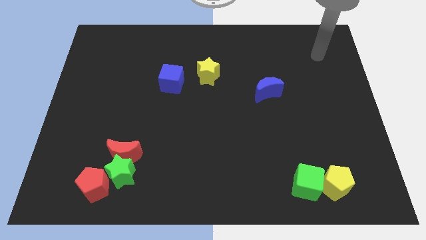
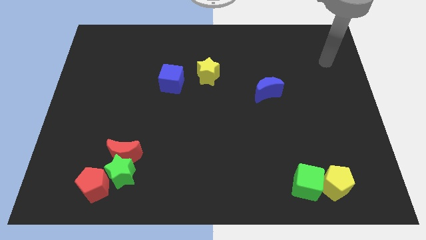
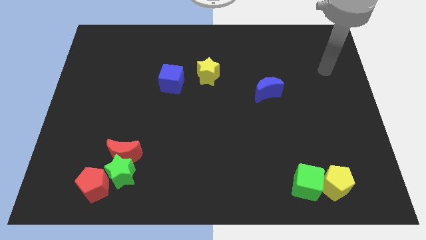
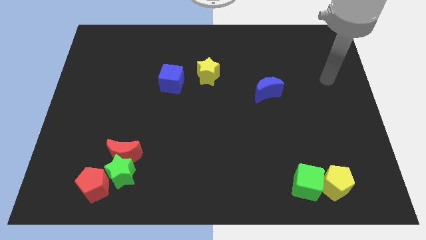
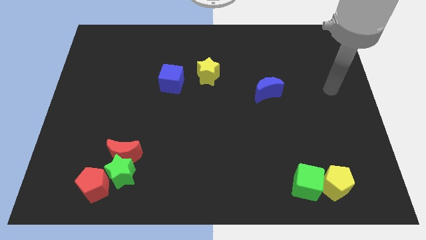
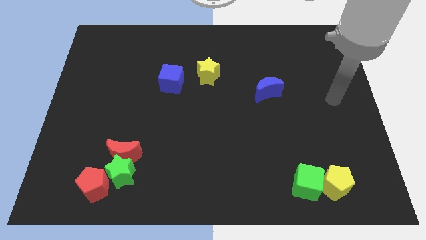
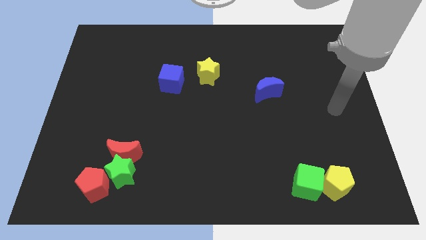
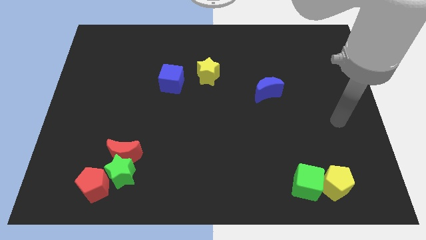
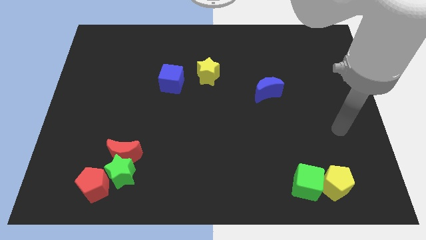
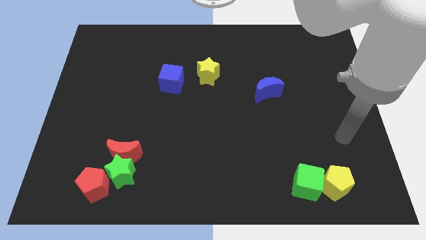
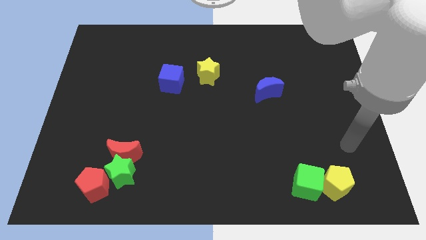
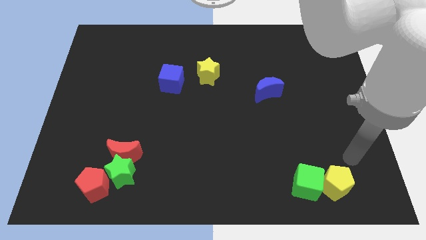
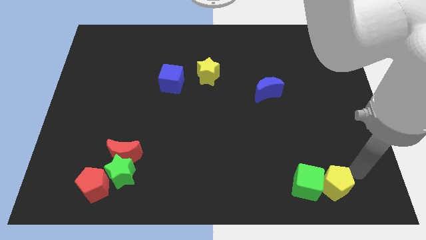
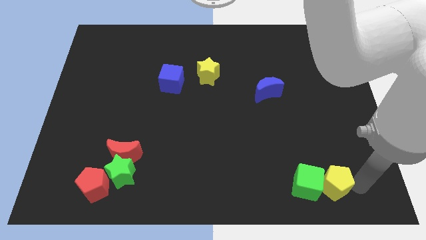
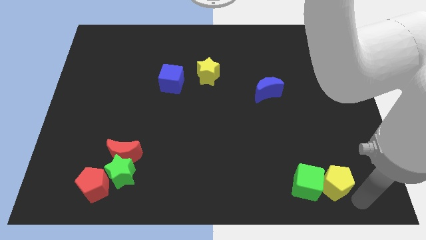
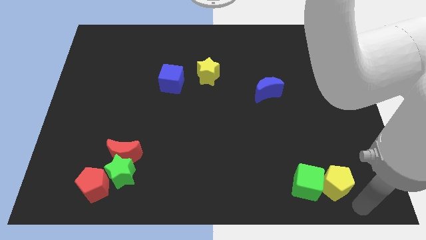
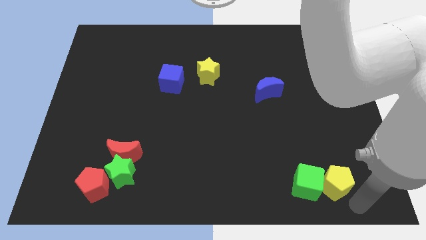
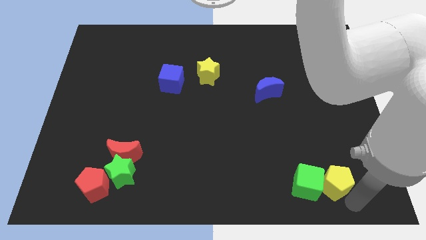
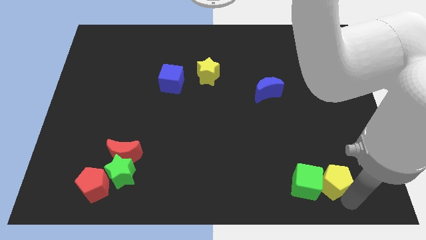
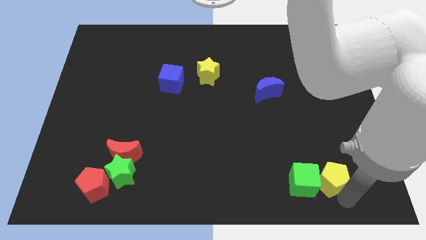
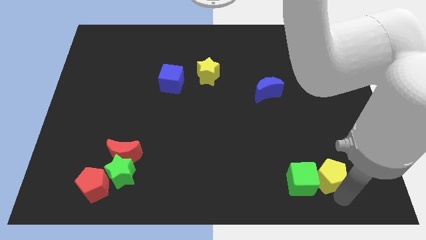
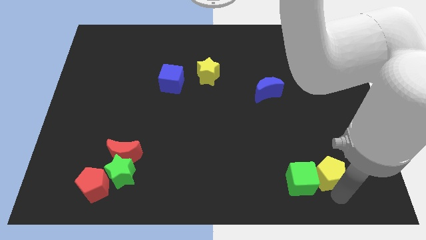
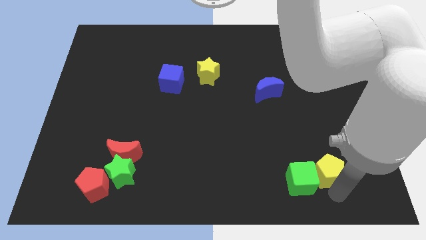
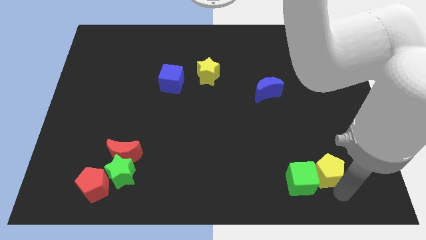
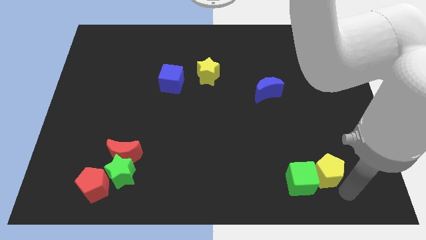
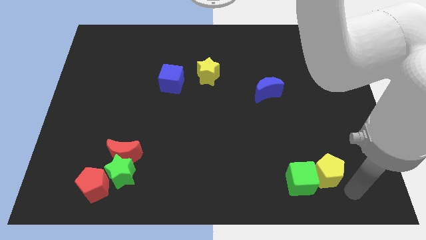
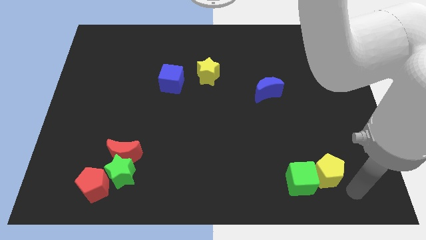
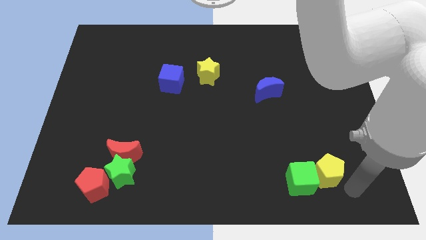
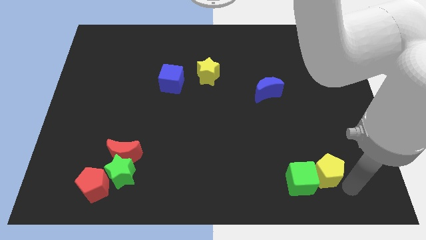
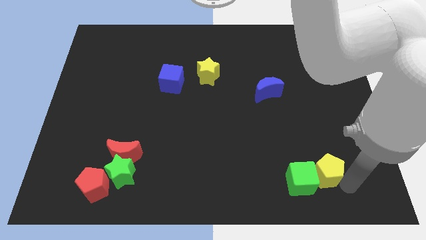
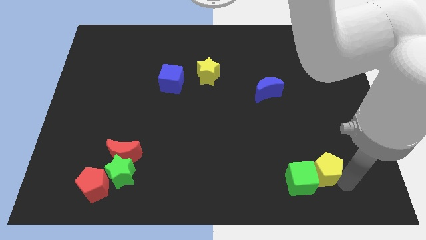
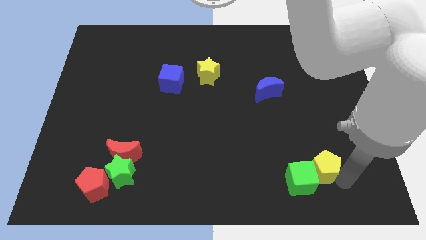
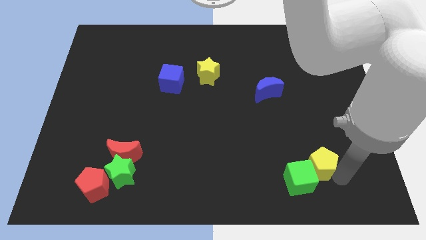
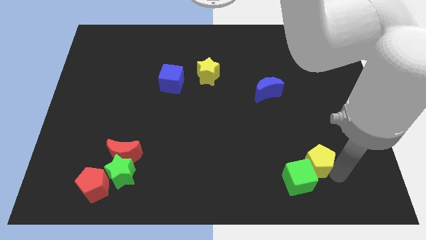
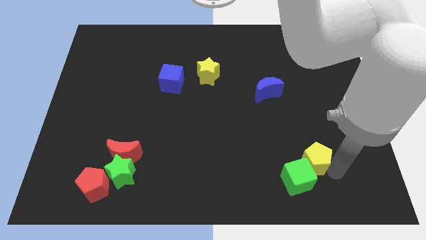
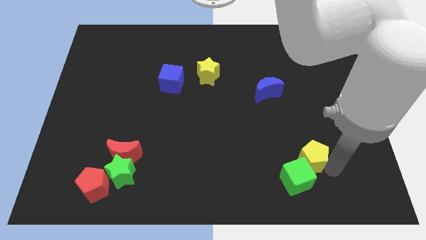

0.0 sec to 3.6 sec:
move the yellow pentagon a little diagonally upwards and to the left

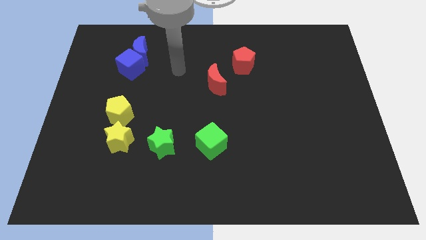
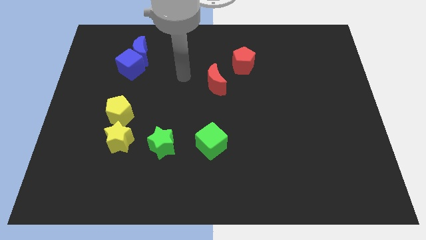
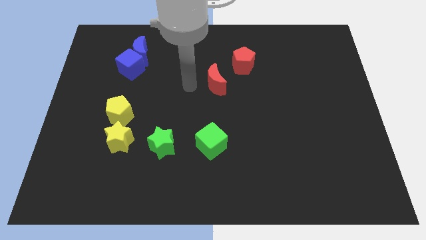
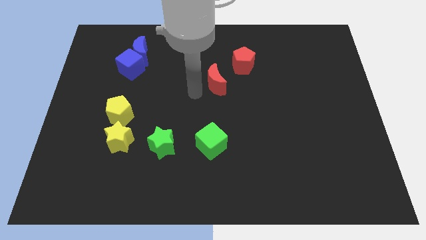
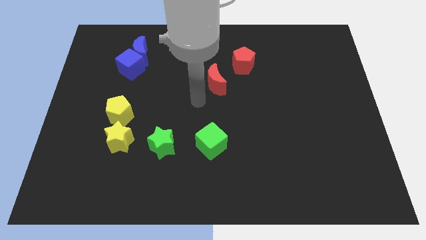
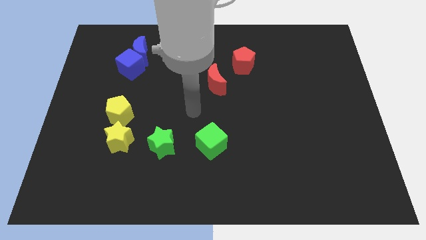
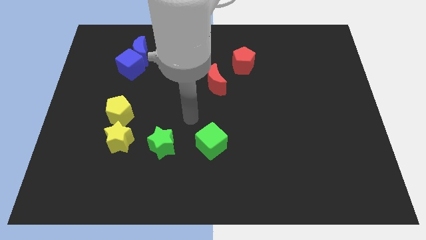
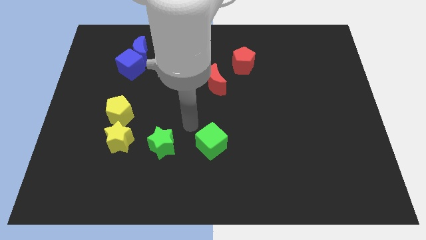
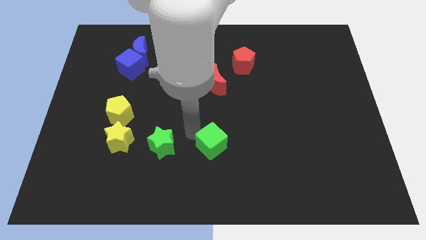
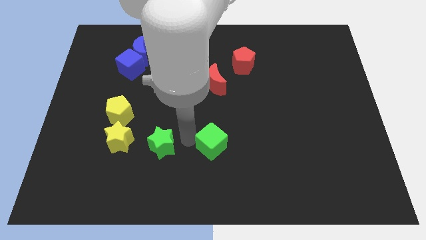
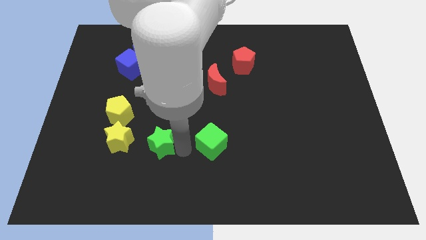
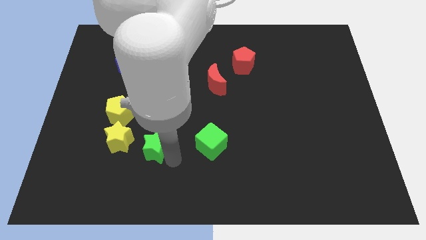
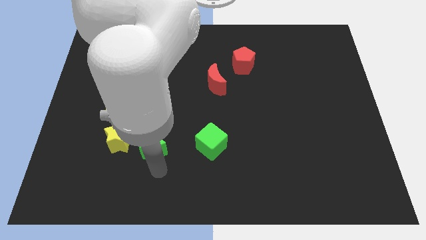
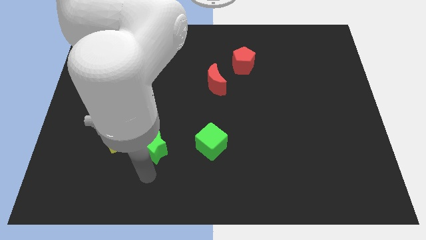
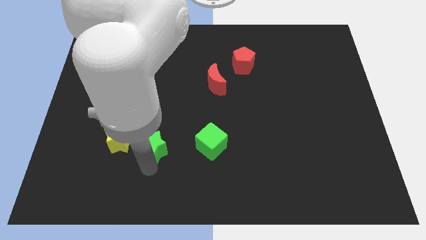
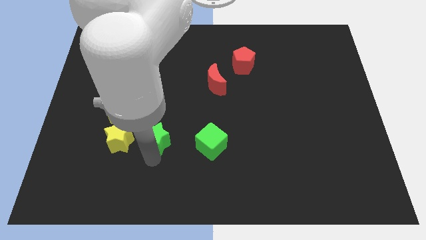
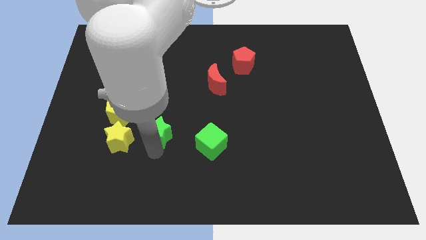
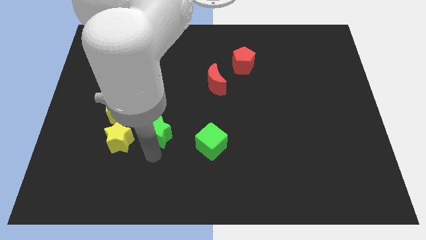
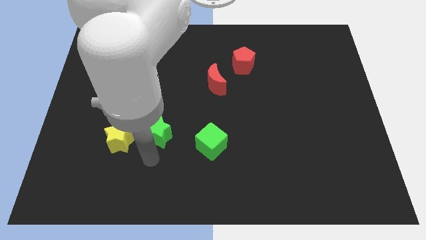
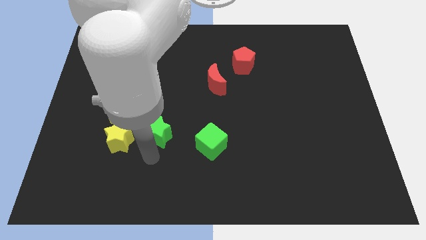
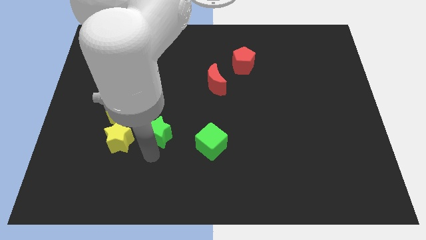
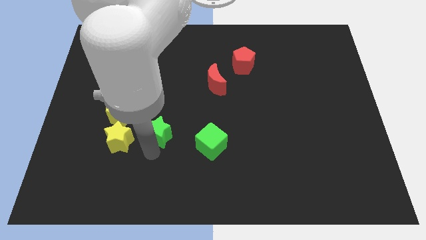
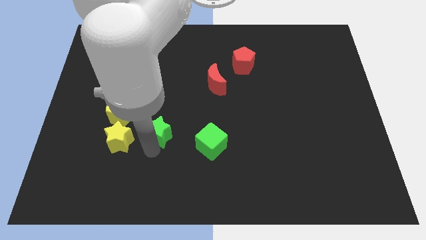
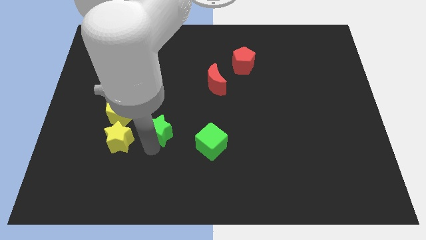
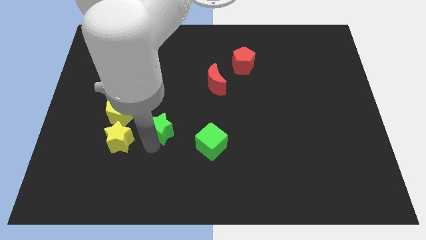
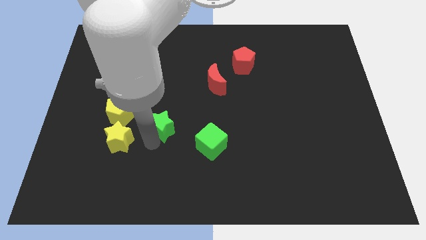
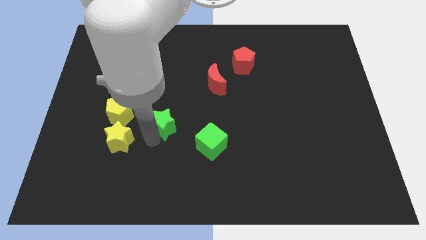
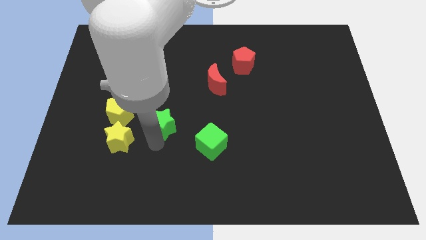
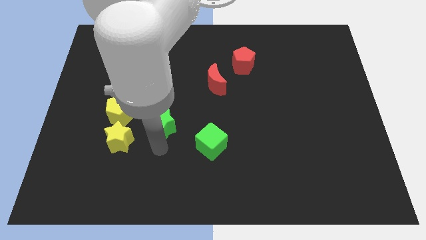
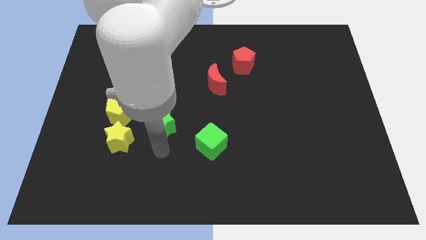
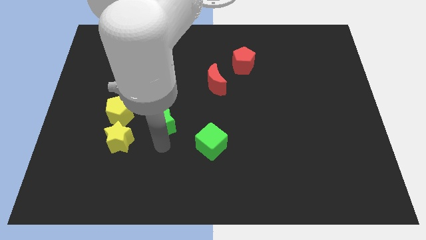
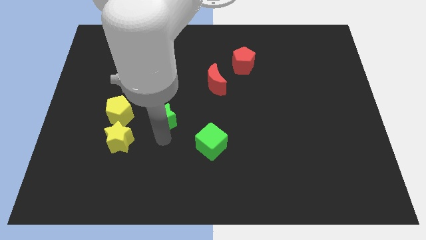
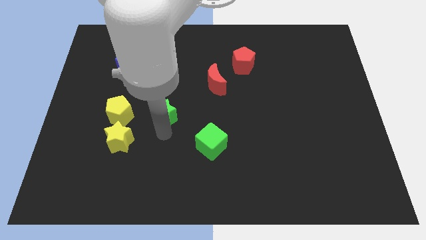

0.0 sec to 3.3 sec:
slide the green star a bit up

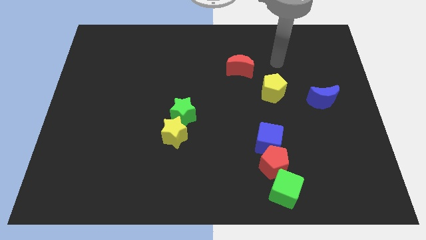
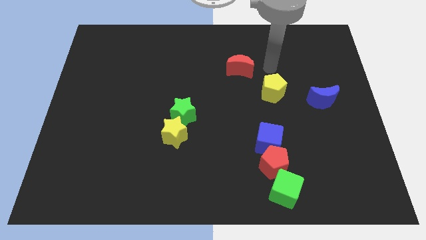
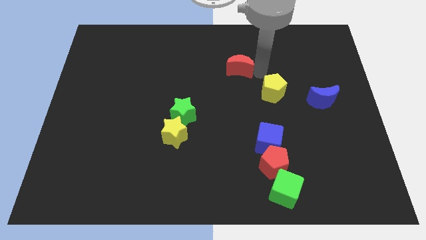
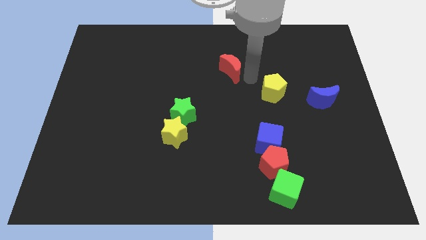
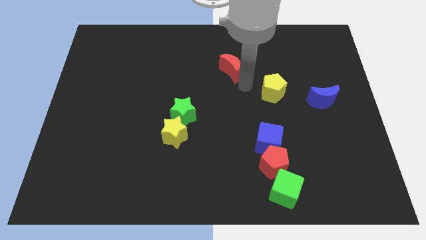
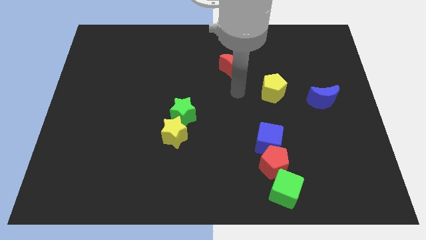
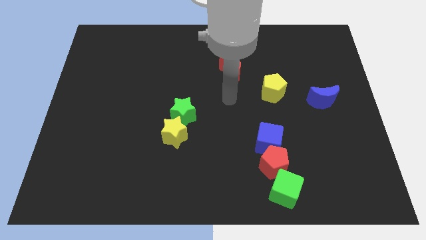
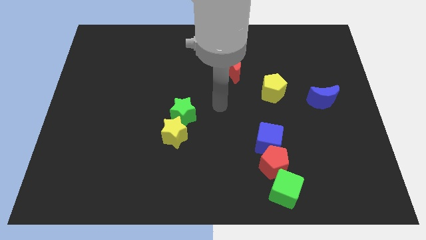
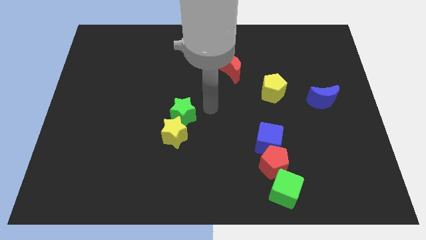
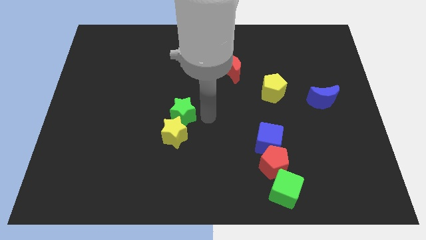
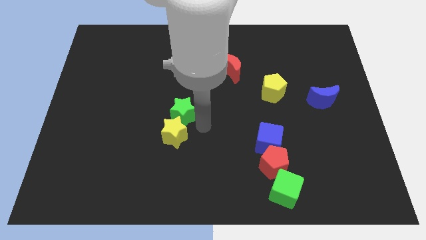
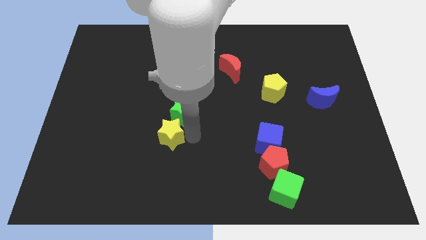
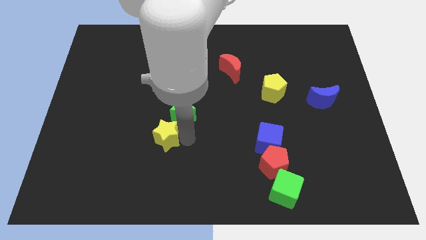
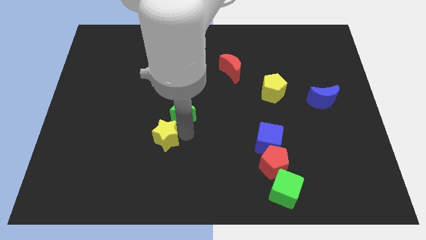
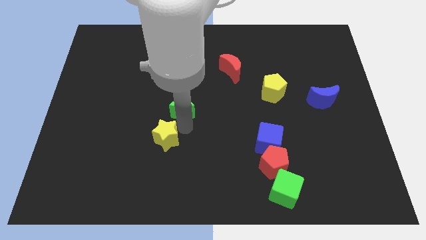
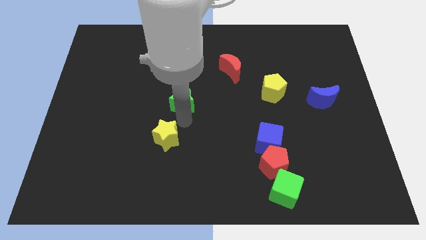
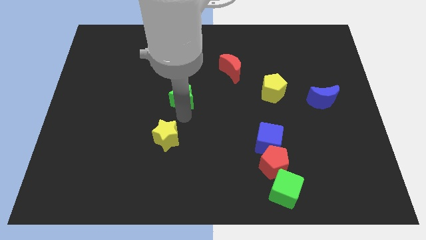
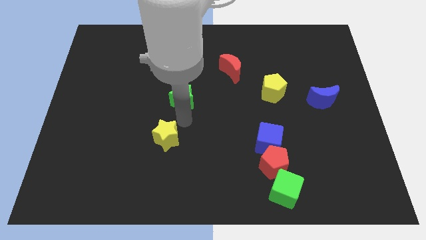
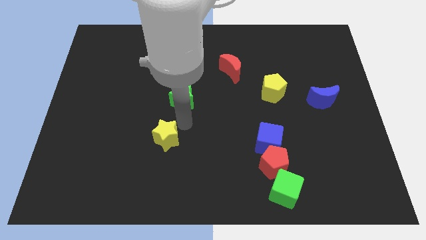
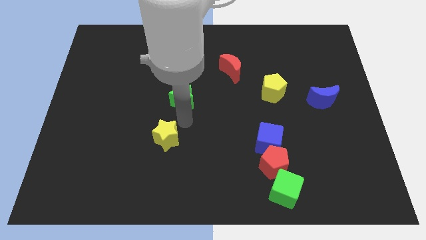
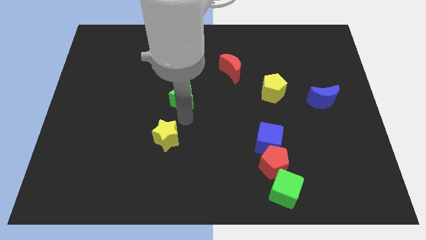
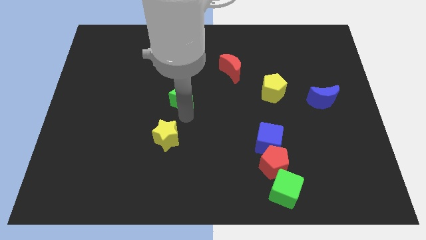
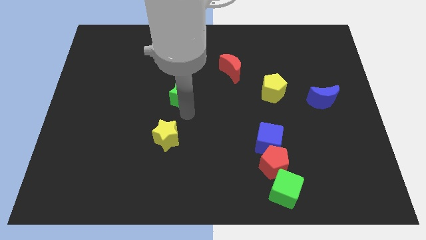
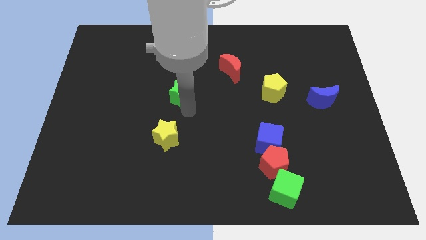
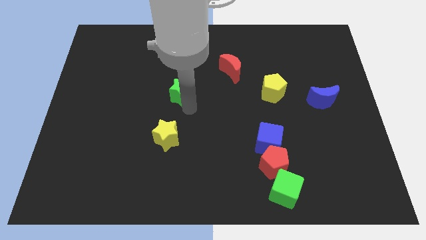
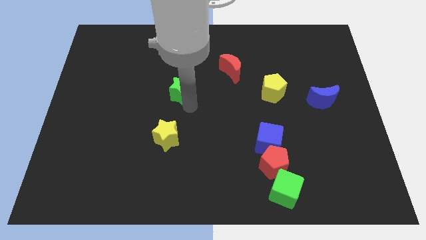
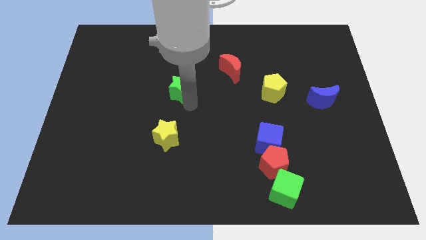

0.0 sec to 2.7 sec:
slide the green star a little bit up
